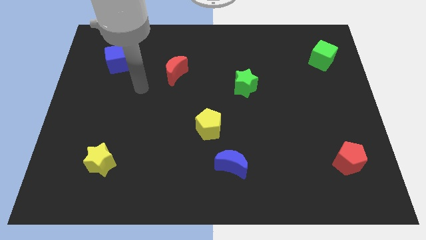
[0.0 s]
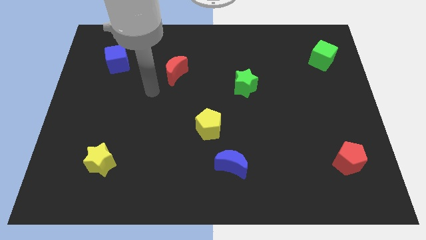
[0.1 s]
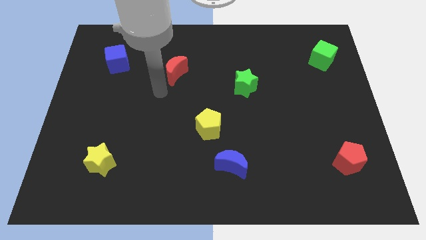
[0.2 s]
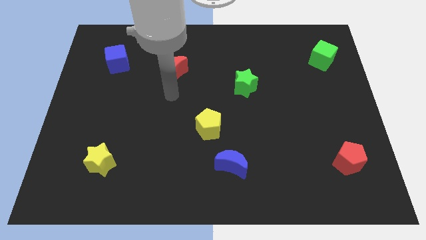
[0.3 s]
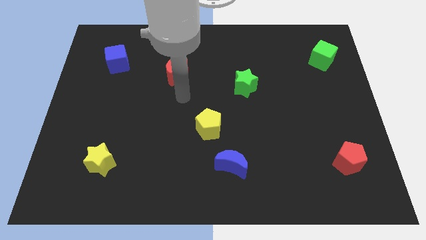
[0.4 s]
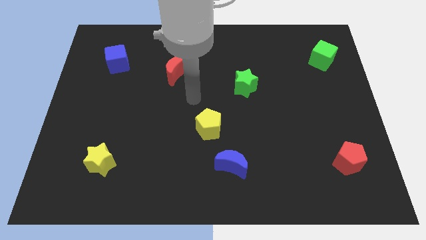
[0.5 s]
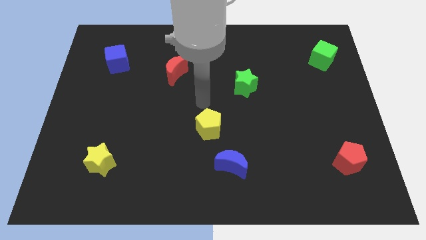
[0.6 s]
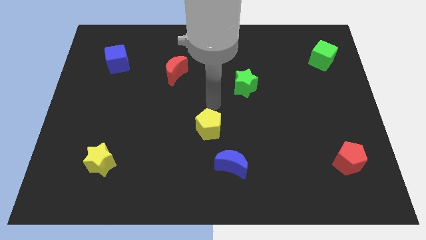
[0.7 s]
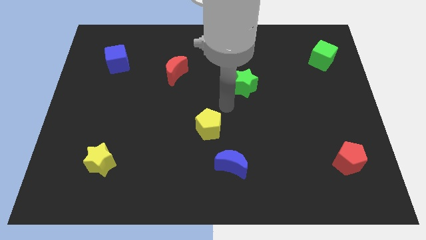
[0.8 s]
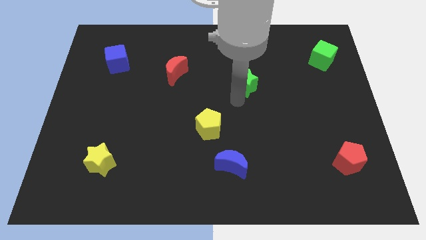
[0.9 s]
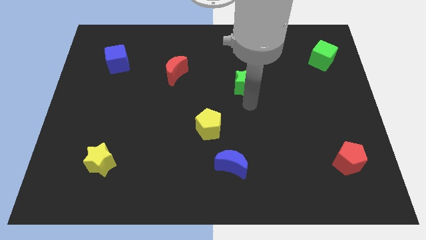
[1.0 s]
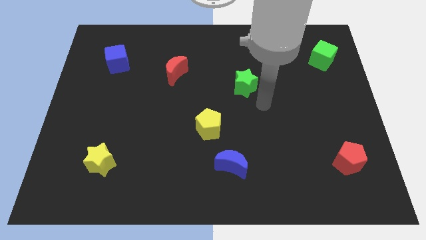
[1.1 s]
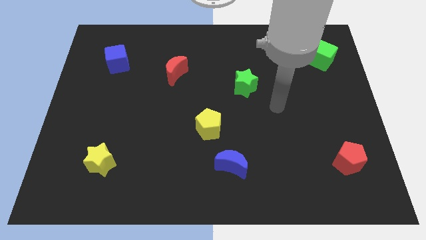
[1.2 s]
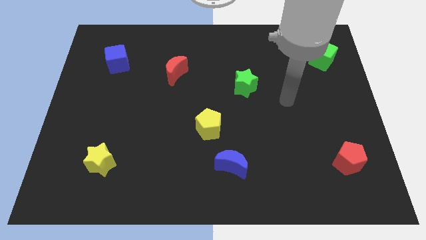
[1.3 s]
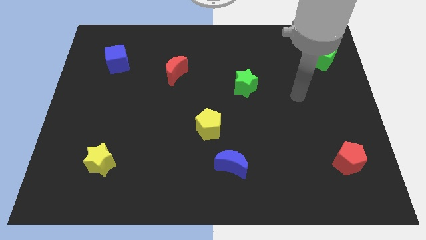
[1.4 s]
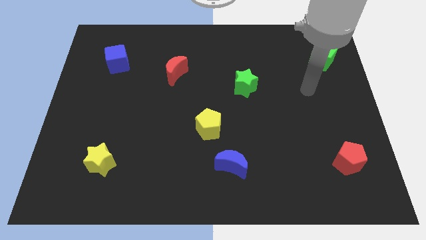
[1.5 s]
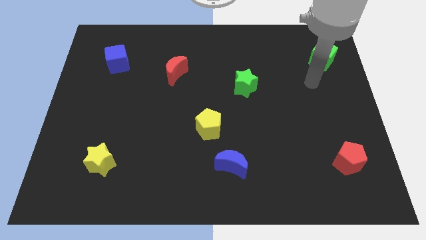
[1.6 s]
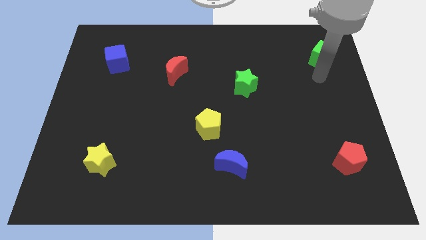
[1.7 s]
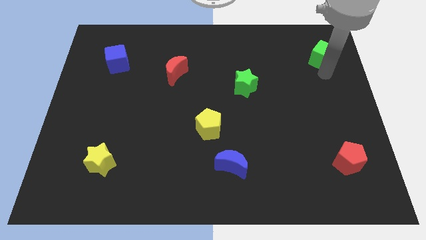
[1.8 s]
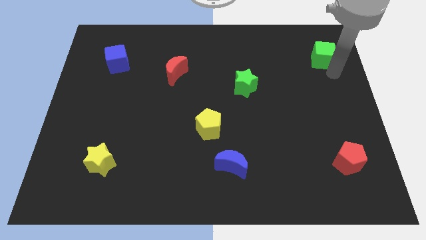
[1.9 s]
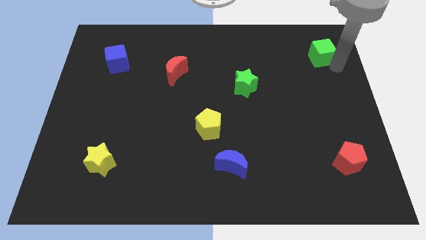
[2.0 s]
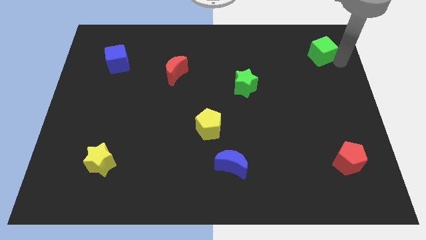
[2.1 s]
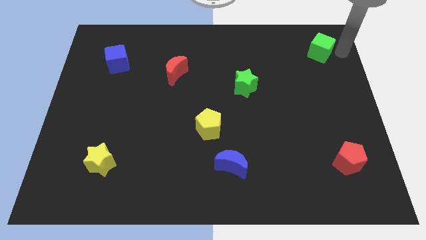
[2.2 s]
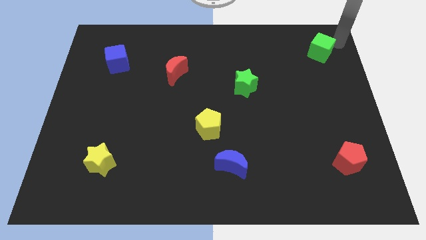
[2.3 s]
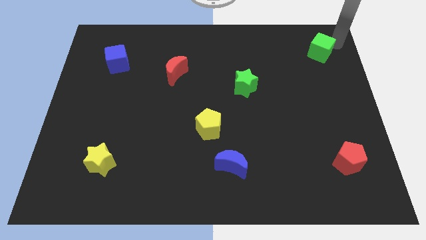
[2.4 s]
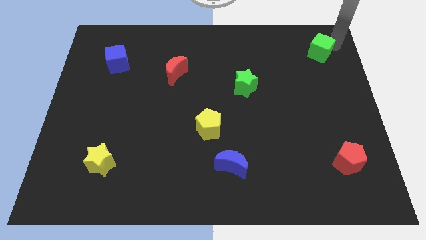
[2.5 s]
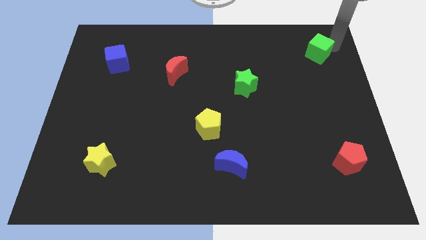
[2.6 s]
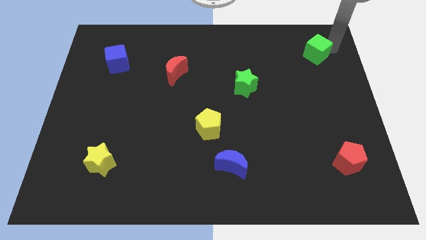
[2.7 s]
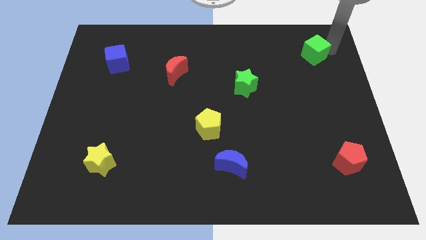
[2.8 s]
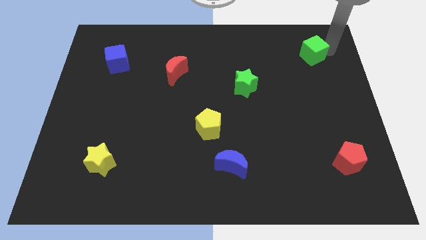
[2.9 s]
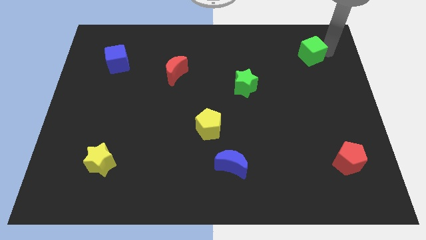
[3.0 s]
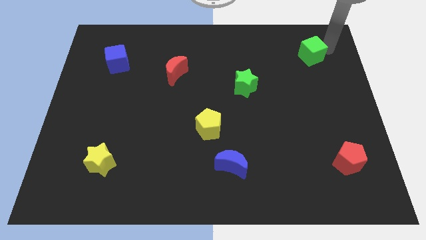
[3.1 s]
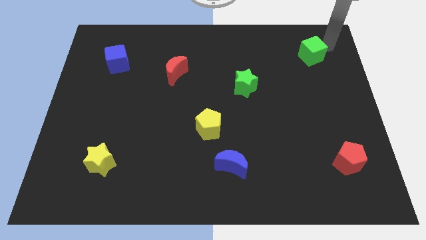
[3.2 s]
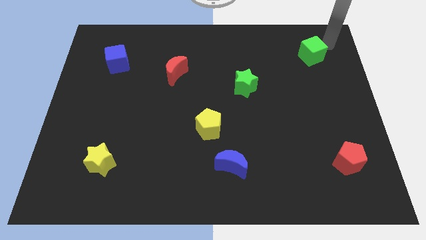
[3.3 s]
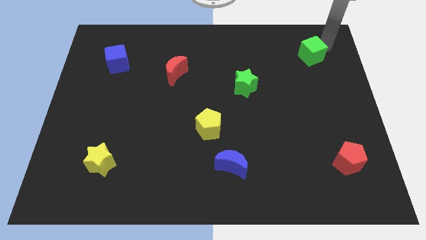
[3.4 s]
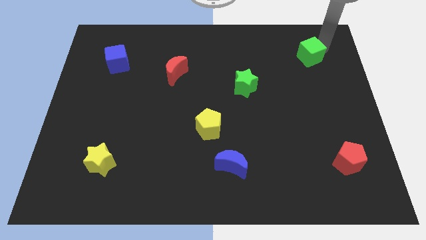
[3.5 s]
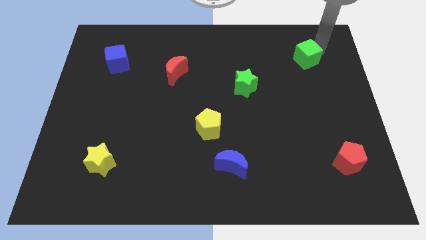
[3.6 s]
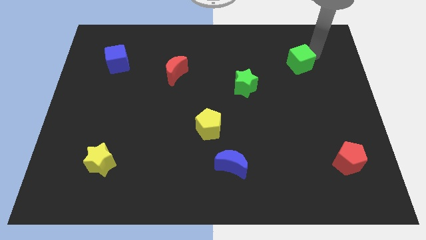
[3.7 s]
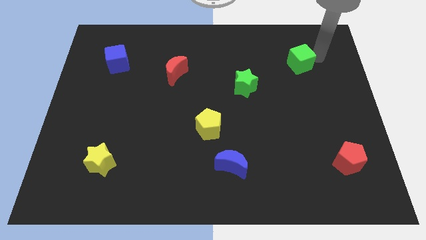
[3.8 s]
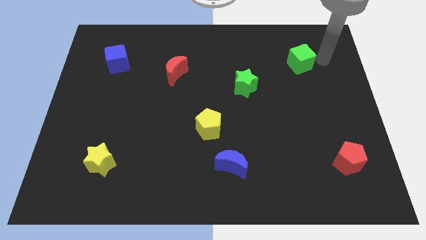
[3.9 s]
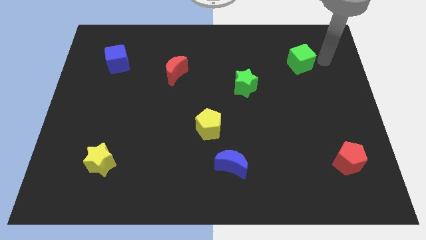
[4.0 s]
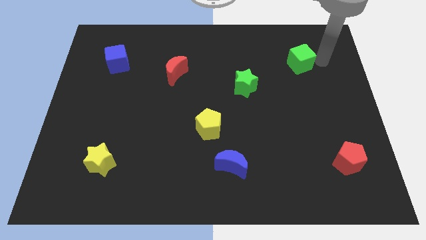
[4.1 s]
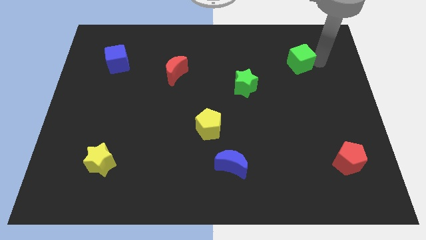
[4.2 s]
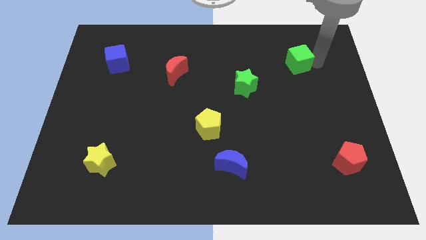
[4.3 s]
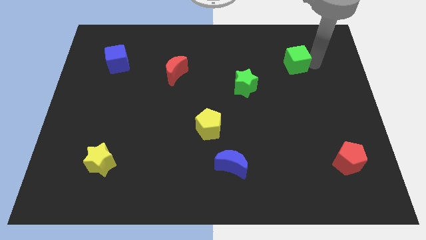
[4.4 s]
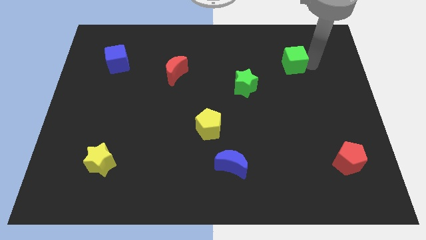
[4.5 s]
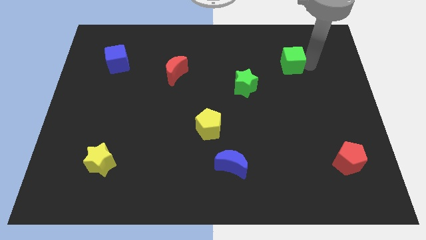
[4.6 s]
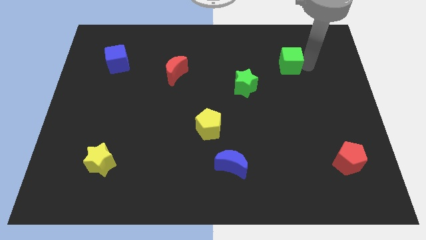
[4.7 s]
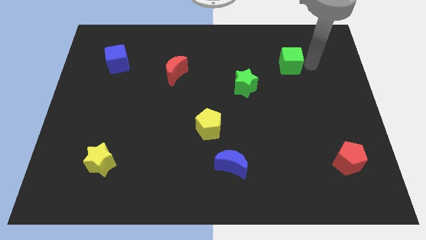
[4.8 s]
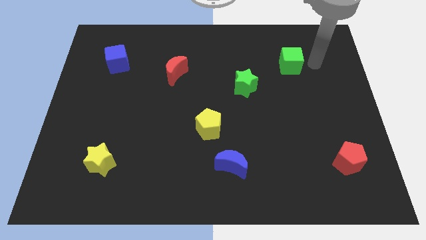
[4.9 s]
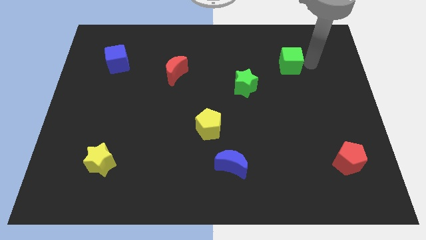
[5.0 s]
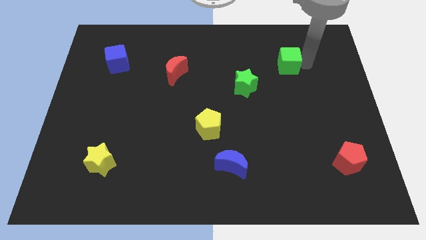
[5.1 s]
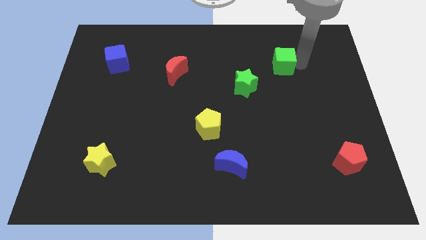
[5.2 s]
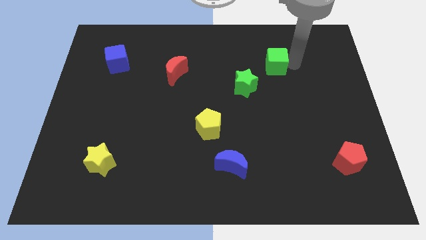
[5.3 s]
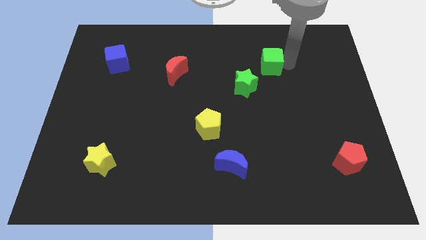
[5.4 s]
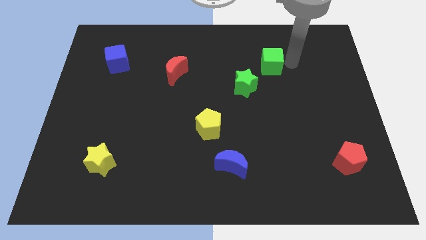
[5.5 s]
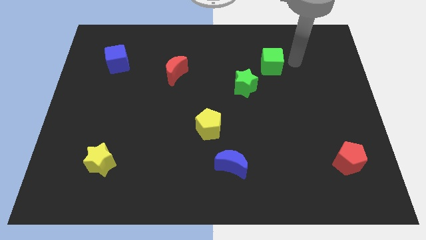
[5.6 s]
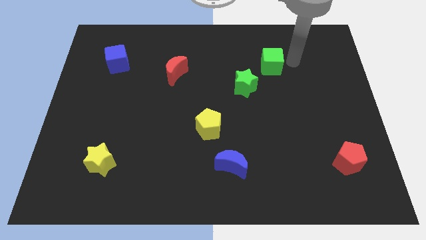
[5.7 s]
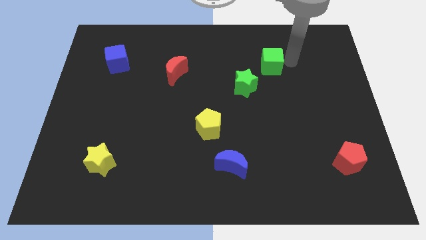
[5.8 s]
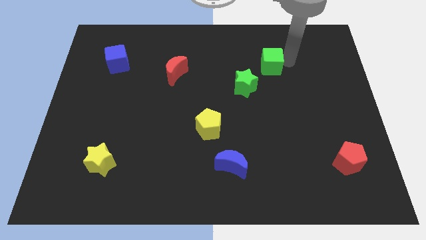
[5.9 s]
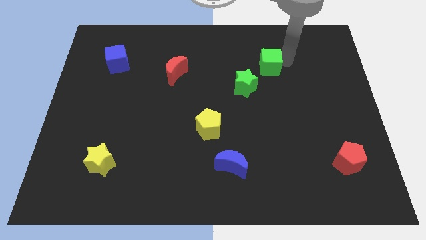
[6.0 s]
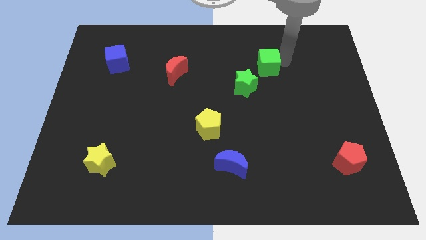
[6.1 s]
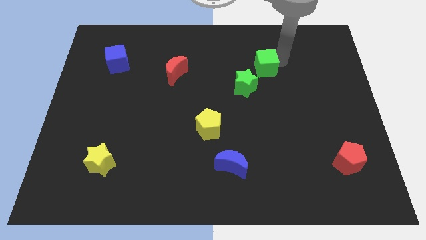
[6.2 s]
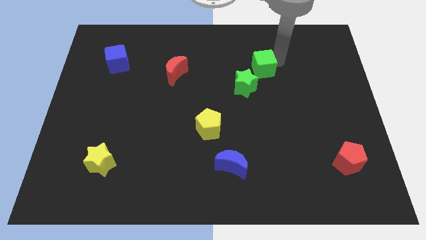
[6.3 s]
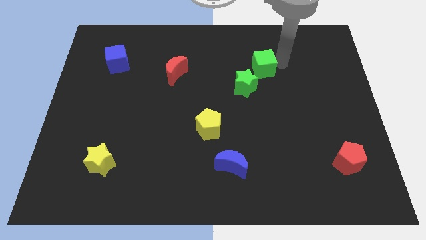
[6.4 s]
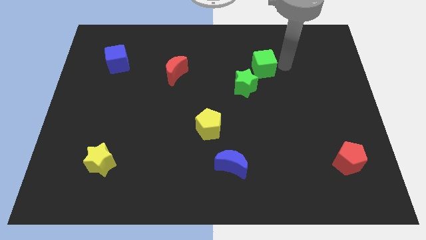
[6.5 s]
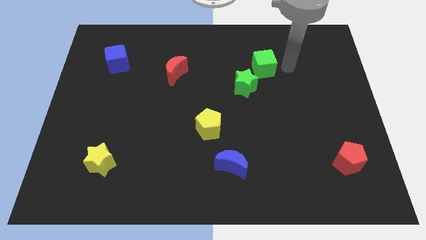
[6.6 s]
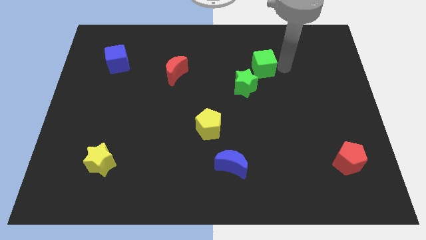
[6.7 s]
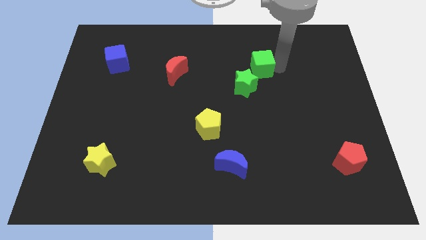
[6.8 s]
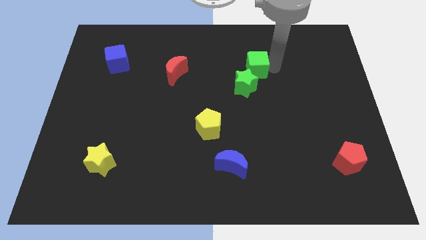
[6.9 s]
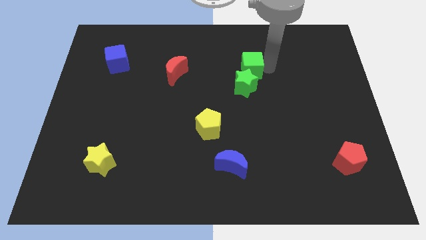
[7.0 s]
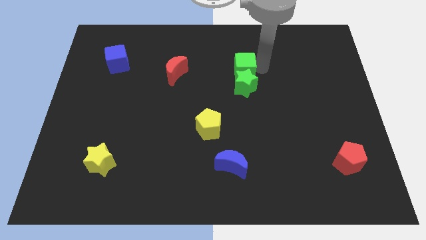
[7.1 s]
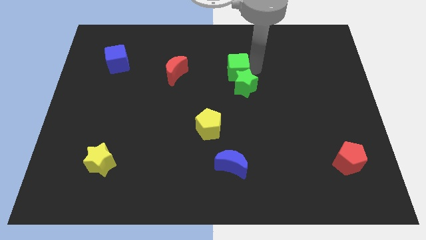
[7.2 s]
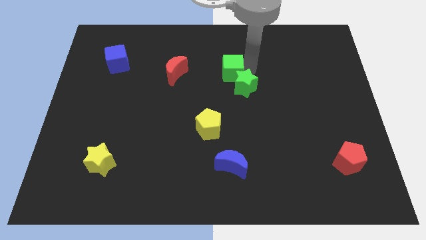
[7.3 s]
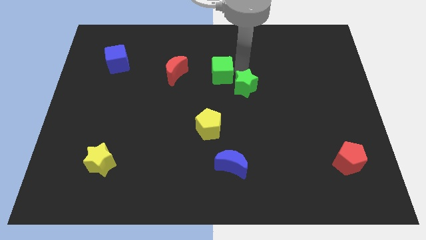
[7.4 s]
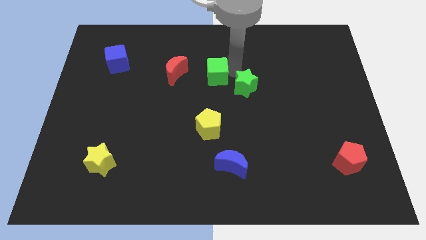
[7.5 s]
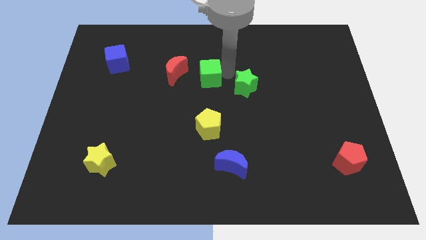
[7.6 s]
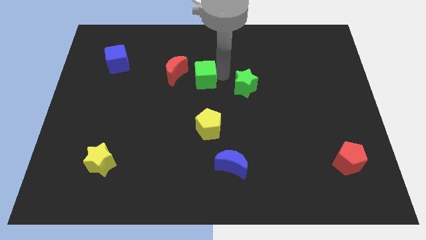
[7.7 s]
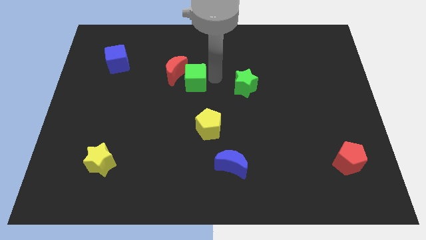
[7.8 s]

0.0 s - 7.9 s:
put the green cube to the red moon
